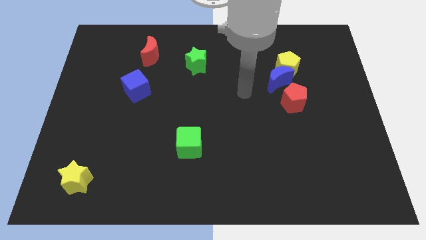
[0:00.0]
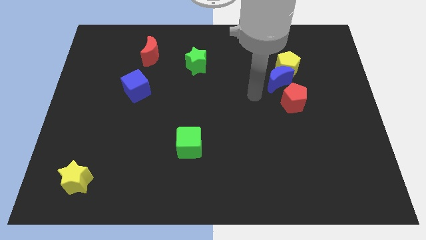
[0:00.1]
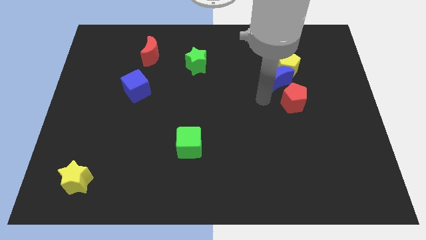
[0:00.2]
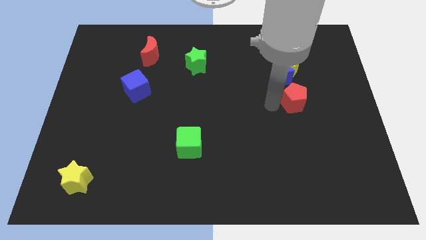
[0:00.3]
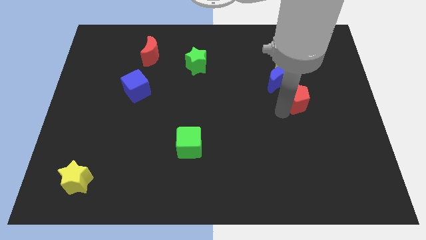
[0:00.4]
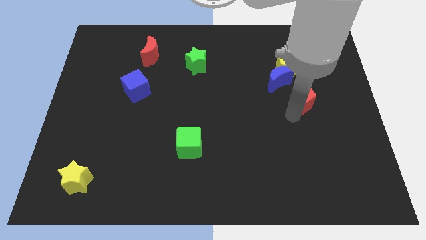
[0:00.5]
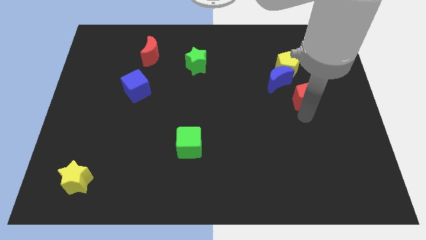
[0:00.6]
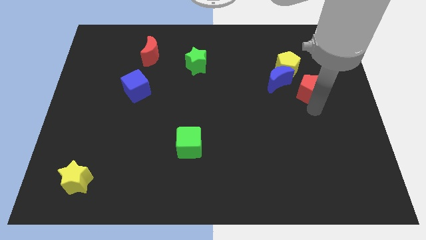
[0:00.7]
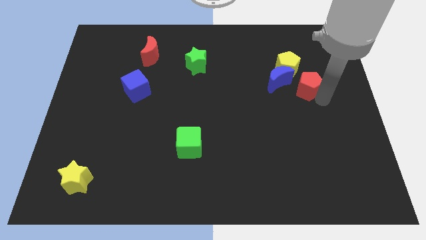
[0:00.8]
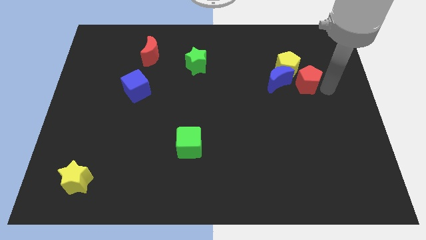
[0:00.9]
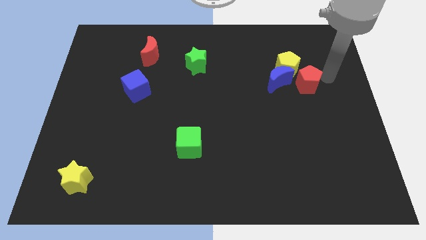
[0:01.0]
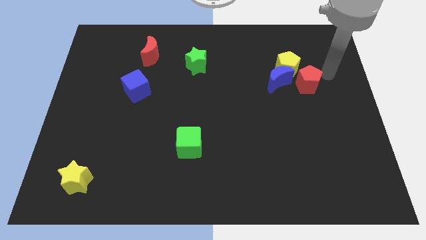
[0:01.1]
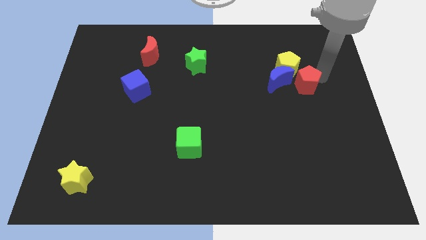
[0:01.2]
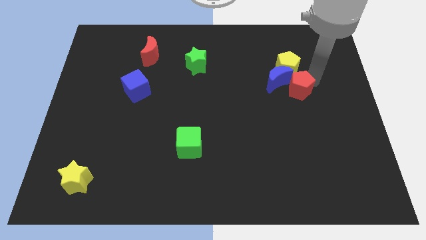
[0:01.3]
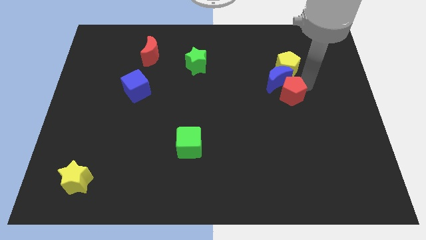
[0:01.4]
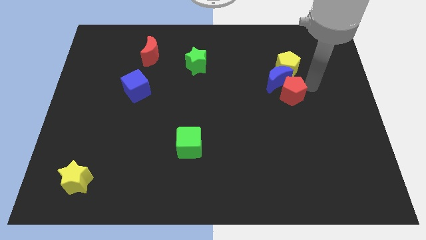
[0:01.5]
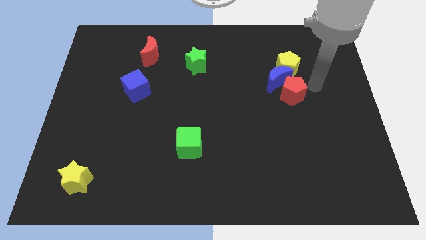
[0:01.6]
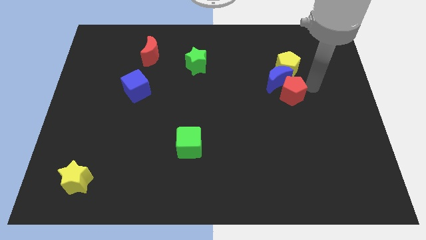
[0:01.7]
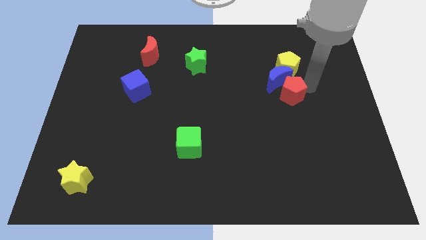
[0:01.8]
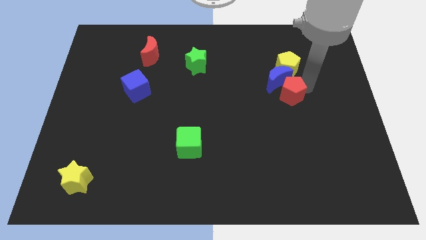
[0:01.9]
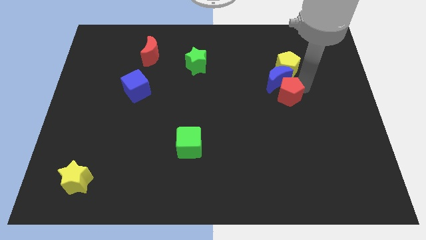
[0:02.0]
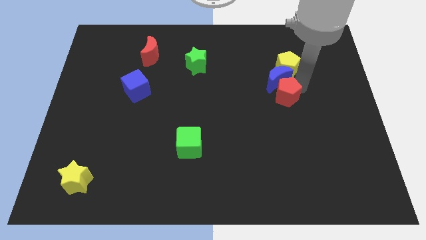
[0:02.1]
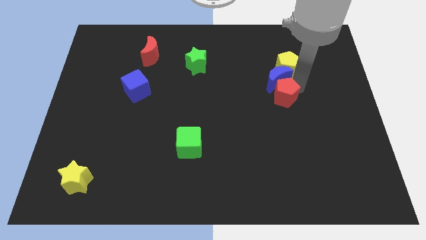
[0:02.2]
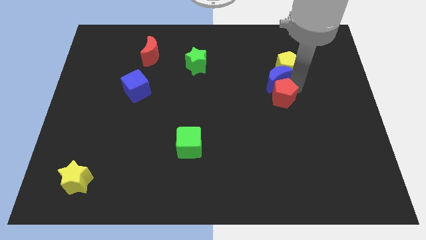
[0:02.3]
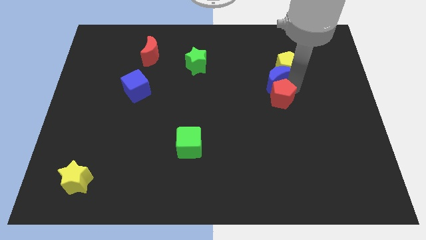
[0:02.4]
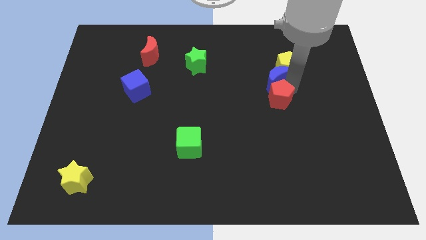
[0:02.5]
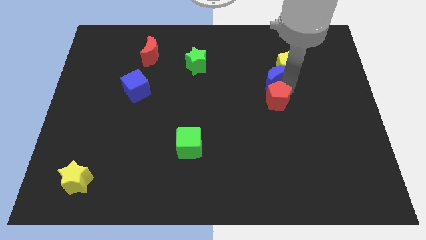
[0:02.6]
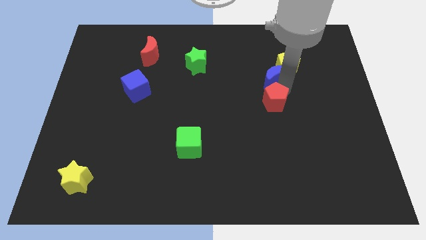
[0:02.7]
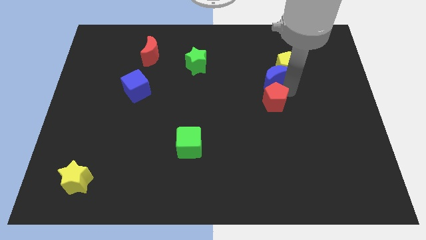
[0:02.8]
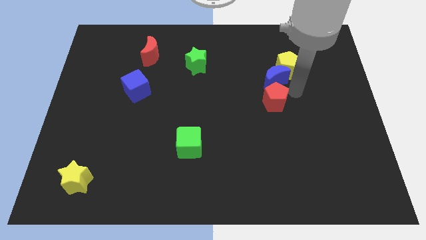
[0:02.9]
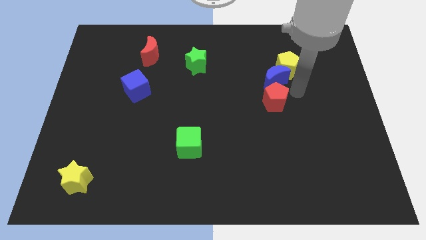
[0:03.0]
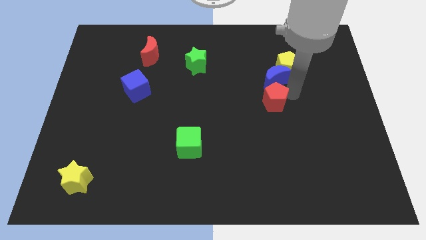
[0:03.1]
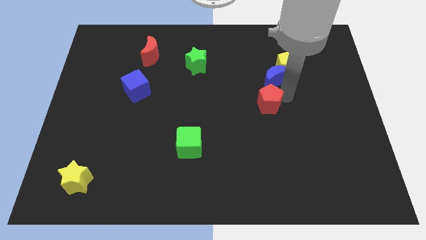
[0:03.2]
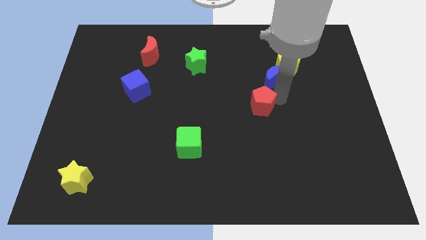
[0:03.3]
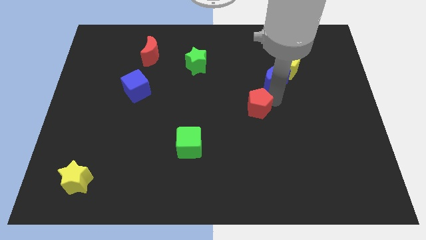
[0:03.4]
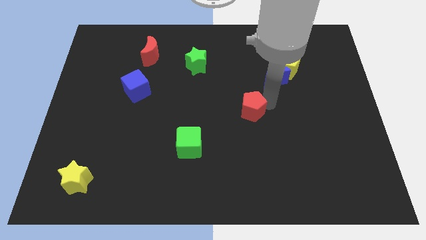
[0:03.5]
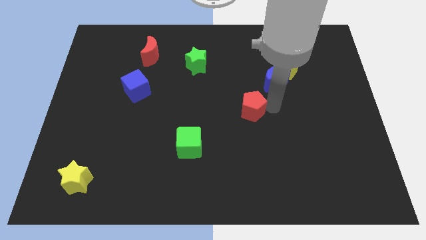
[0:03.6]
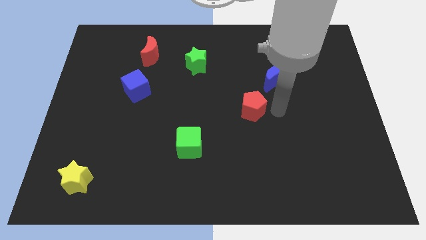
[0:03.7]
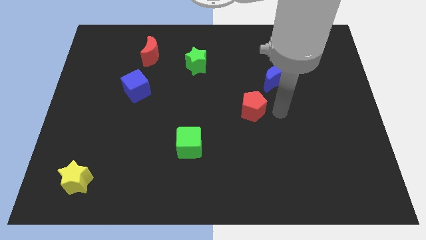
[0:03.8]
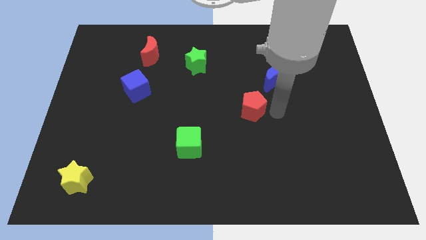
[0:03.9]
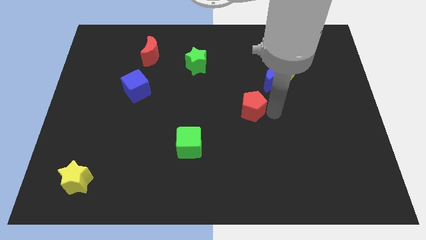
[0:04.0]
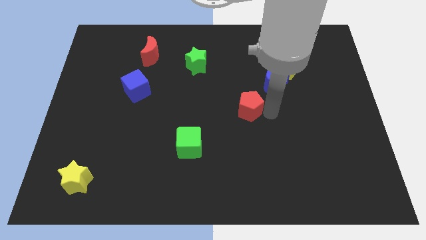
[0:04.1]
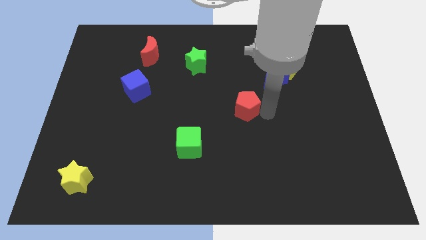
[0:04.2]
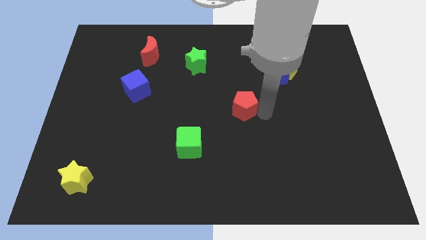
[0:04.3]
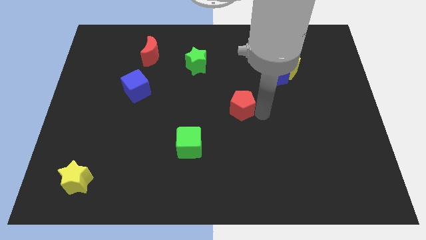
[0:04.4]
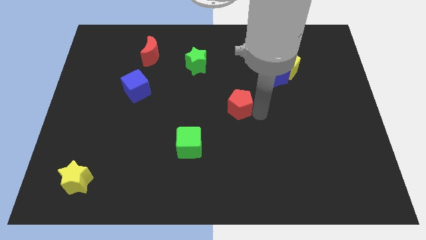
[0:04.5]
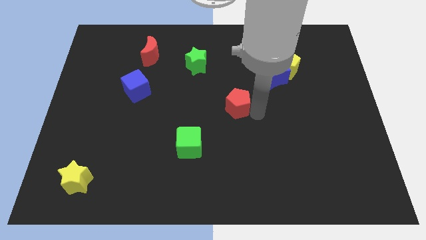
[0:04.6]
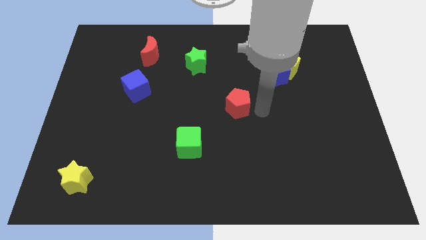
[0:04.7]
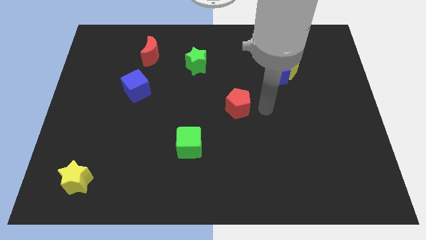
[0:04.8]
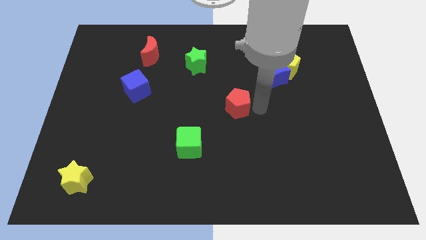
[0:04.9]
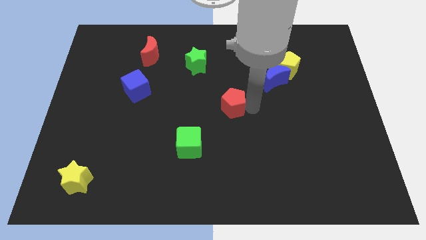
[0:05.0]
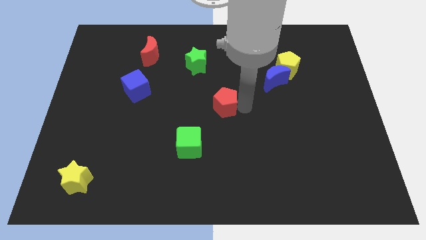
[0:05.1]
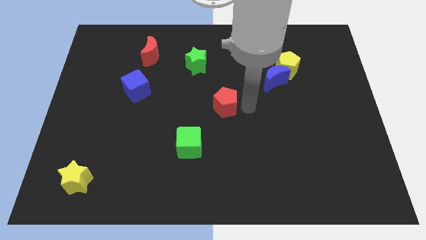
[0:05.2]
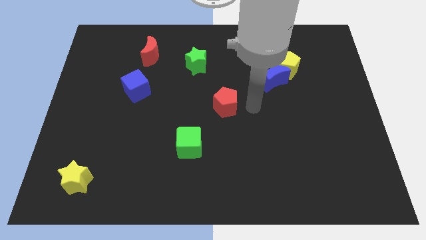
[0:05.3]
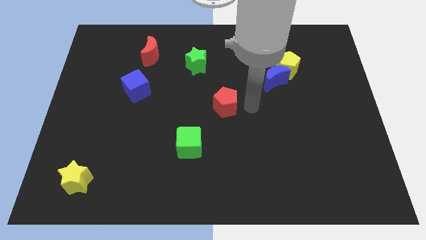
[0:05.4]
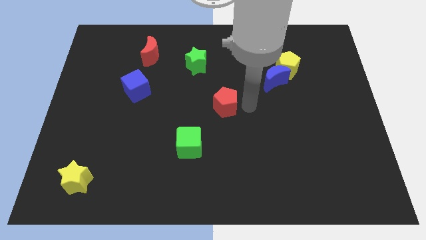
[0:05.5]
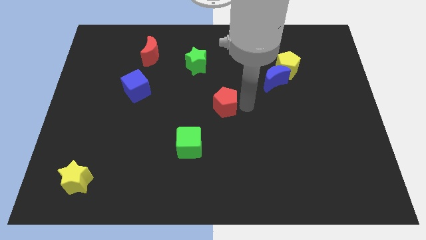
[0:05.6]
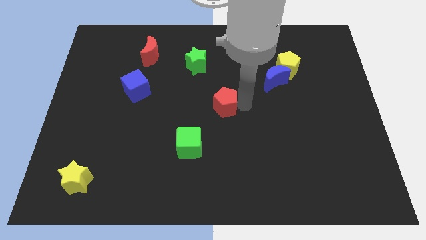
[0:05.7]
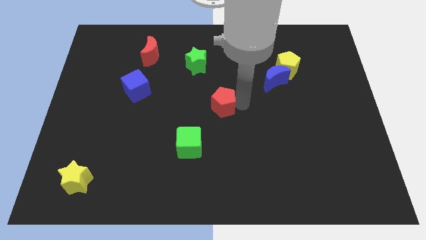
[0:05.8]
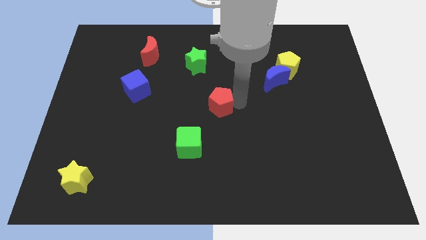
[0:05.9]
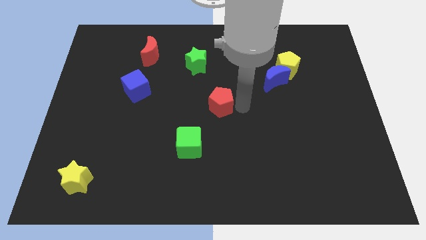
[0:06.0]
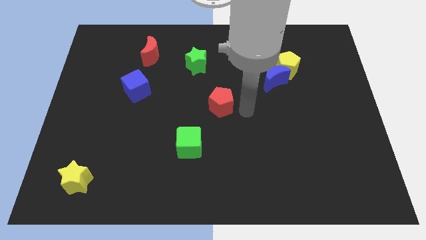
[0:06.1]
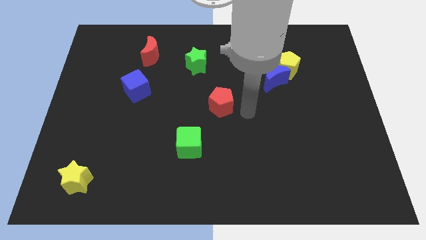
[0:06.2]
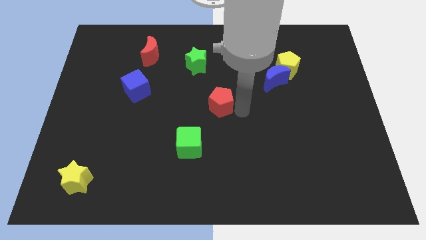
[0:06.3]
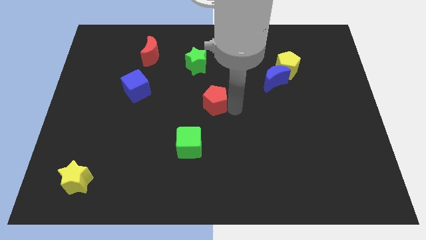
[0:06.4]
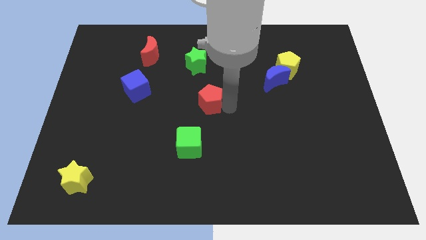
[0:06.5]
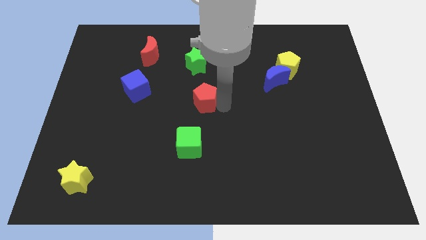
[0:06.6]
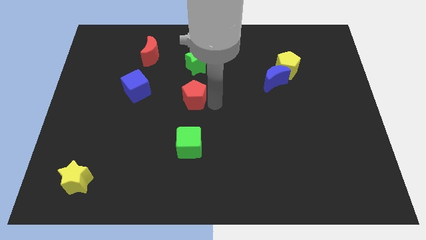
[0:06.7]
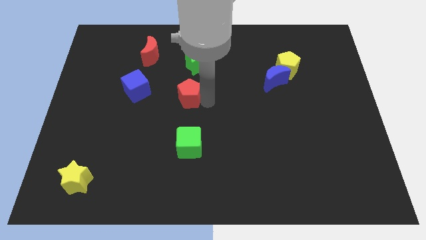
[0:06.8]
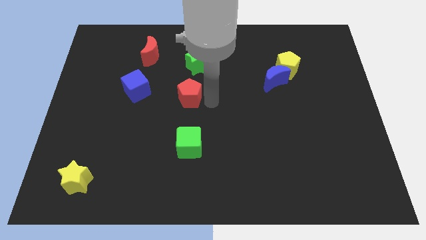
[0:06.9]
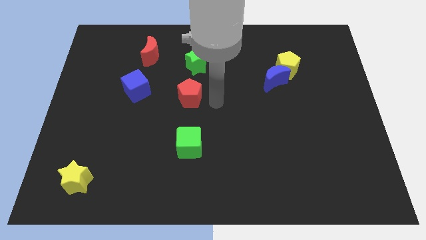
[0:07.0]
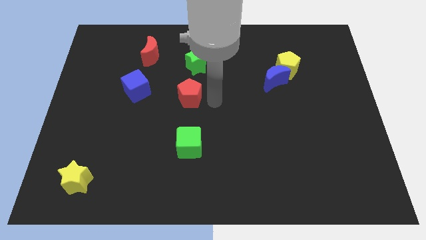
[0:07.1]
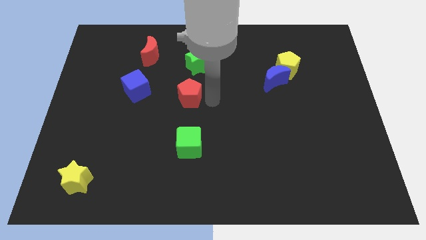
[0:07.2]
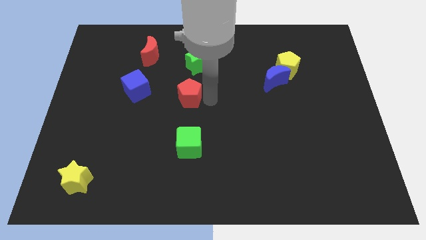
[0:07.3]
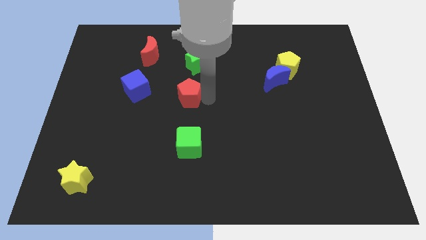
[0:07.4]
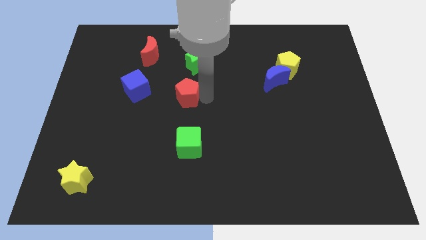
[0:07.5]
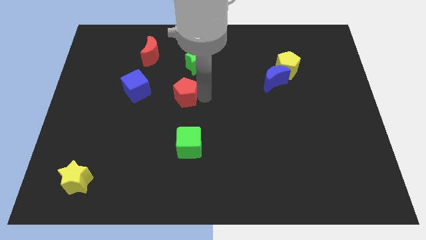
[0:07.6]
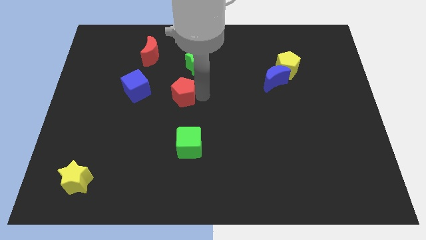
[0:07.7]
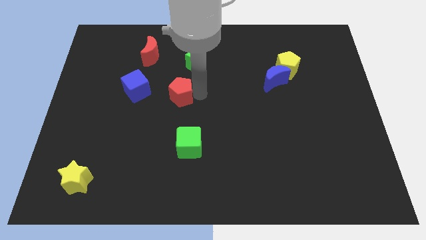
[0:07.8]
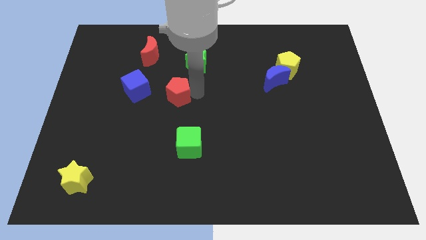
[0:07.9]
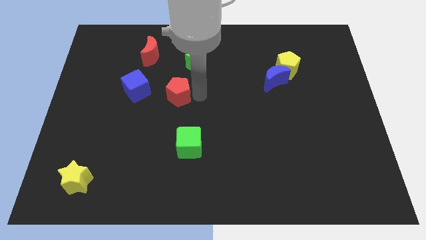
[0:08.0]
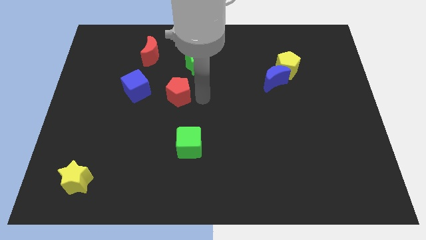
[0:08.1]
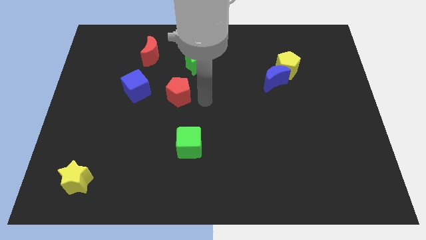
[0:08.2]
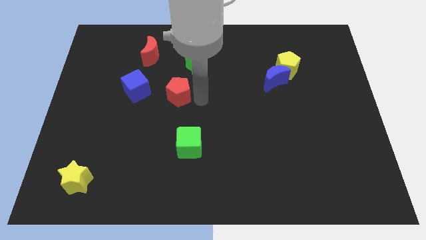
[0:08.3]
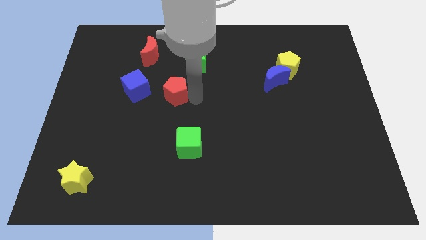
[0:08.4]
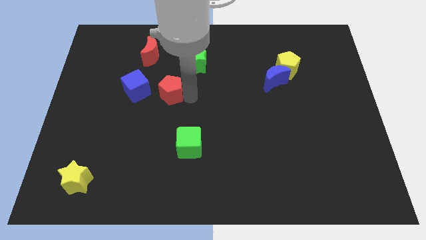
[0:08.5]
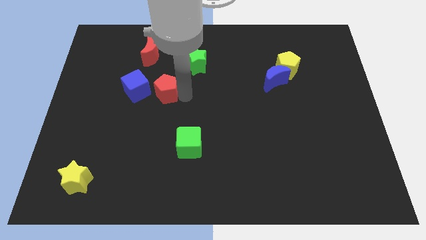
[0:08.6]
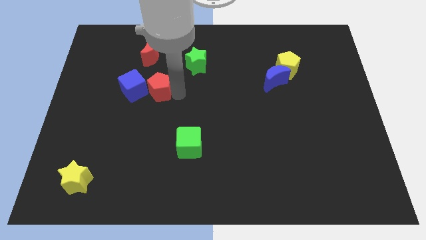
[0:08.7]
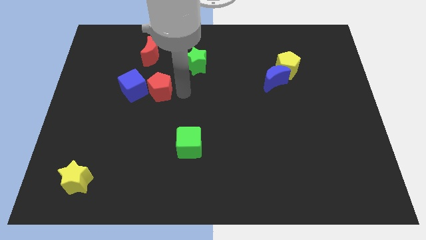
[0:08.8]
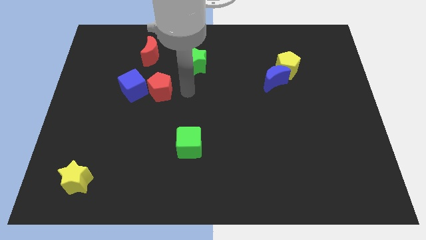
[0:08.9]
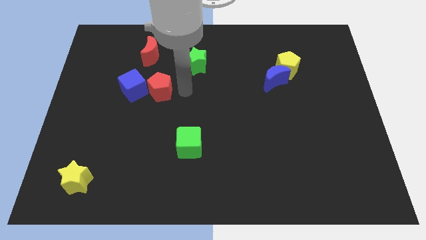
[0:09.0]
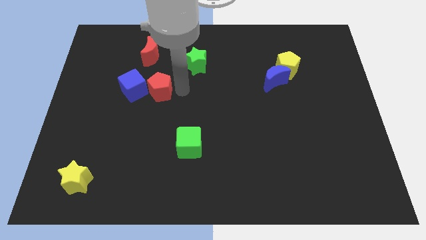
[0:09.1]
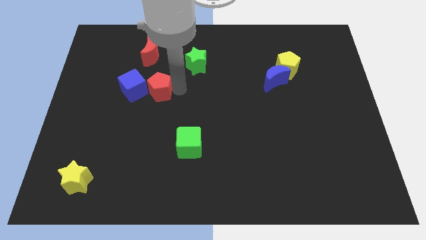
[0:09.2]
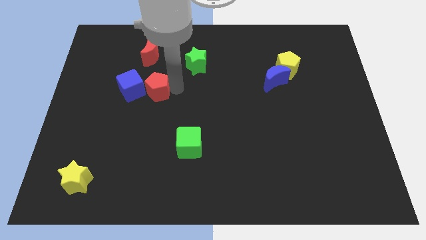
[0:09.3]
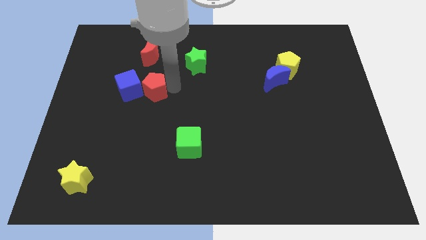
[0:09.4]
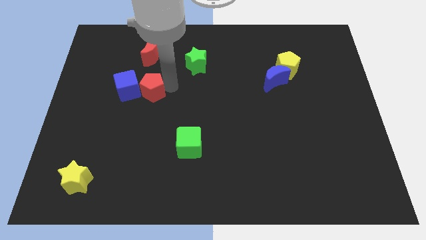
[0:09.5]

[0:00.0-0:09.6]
move the red pentagon next to the blue cube
